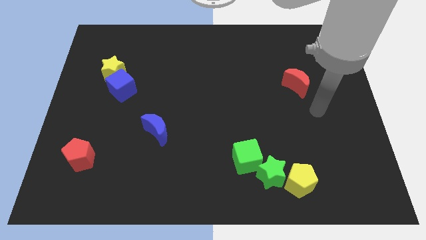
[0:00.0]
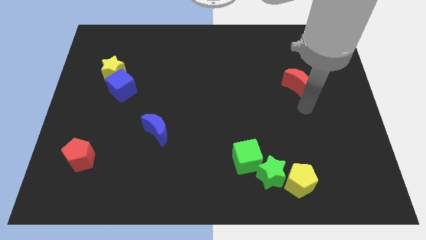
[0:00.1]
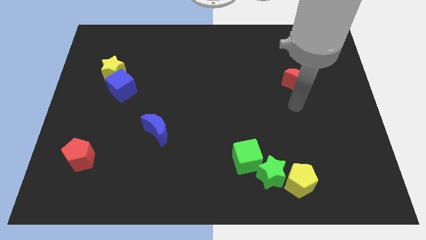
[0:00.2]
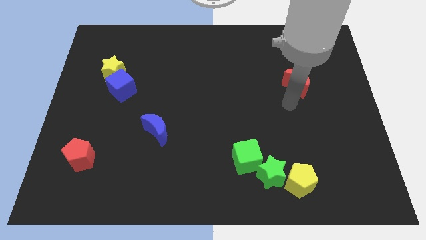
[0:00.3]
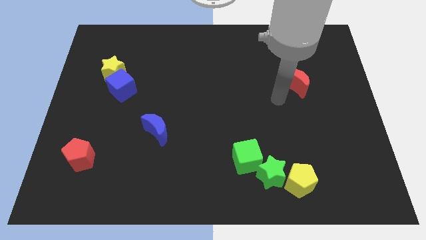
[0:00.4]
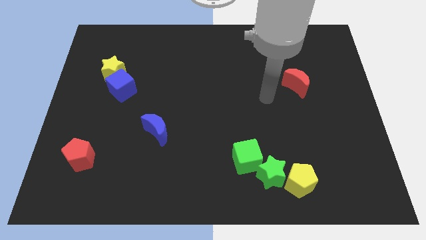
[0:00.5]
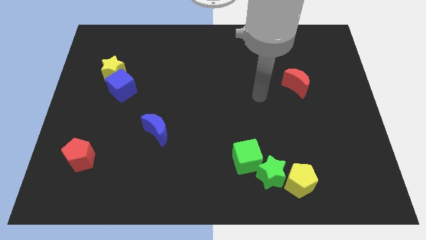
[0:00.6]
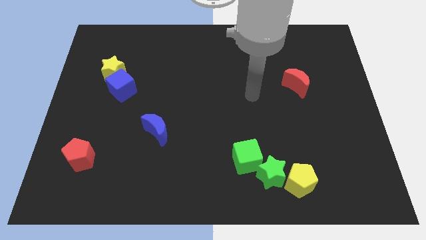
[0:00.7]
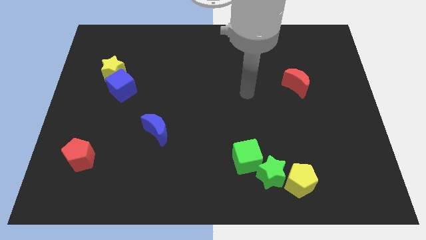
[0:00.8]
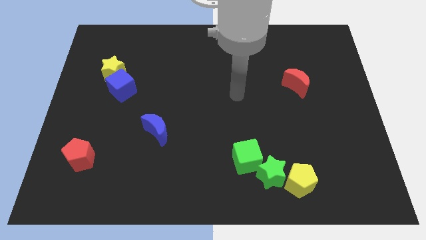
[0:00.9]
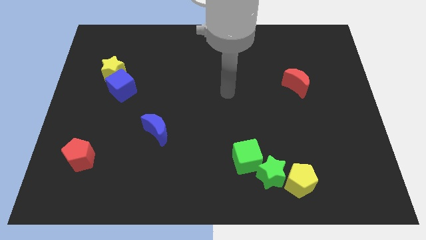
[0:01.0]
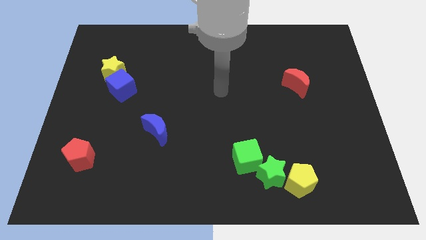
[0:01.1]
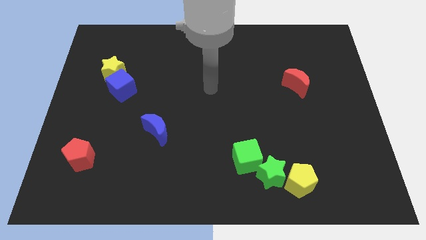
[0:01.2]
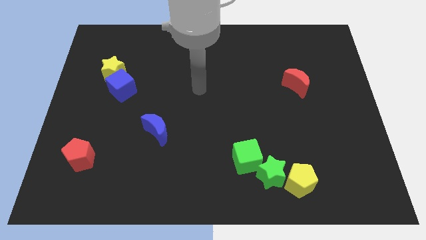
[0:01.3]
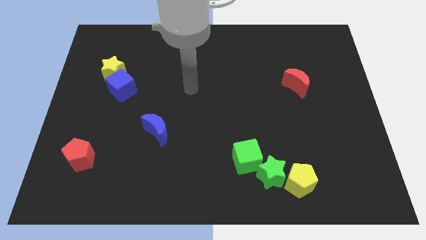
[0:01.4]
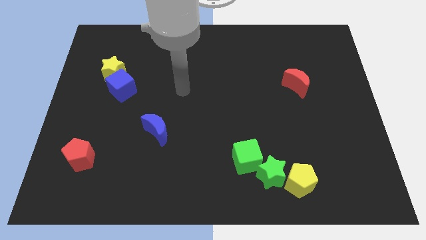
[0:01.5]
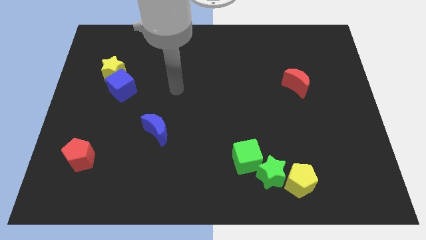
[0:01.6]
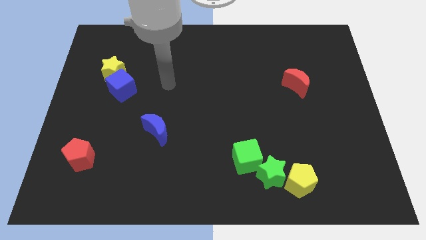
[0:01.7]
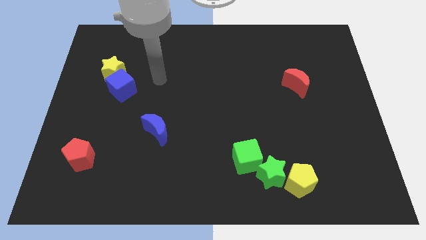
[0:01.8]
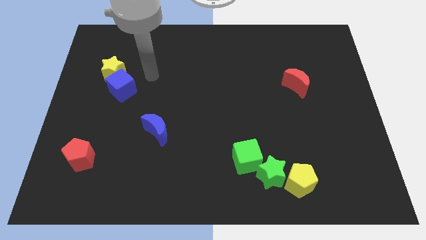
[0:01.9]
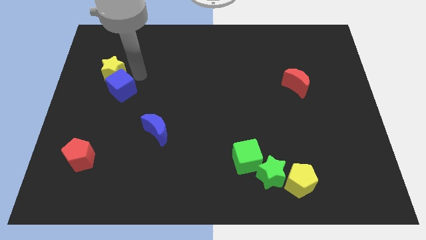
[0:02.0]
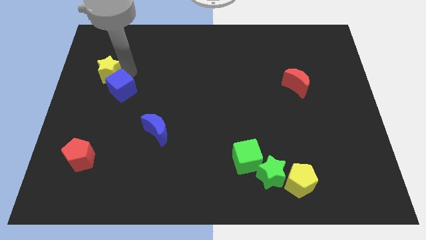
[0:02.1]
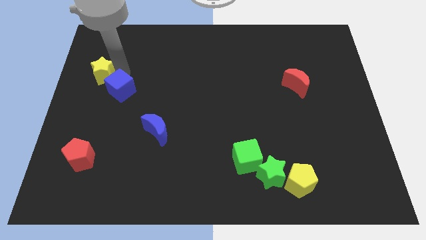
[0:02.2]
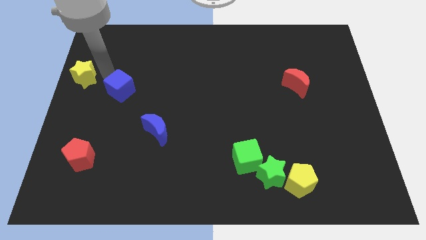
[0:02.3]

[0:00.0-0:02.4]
separate the blue cube from the yellow star

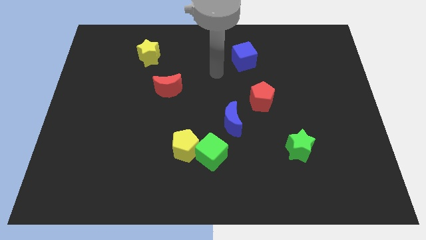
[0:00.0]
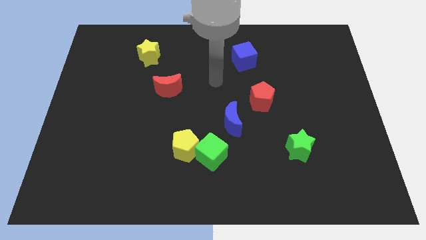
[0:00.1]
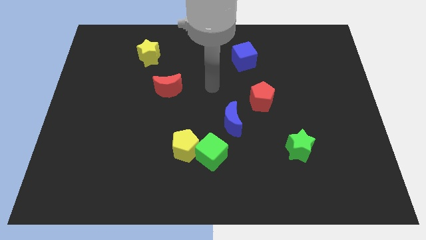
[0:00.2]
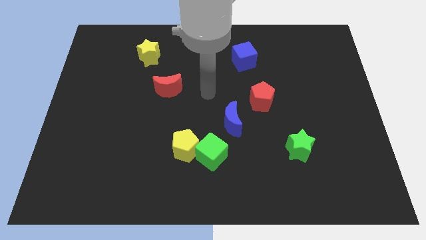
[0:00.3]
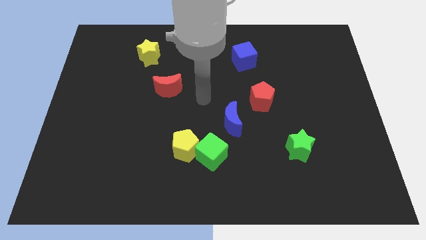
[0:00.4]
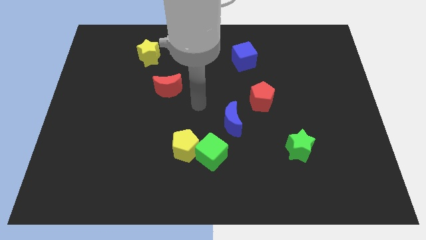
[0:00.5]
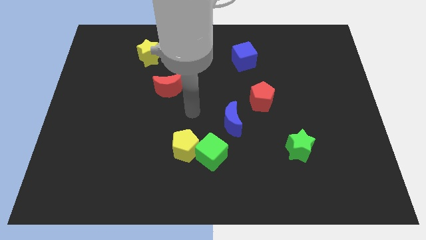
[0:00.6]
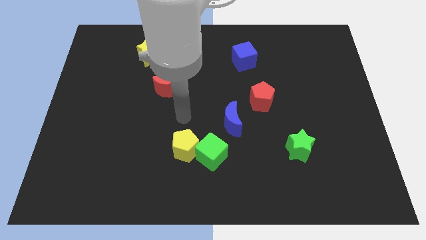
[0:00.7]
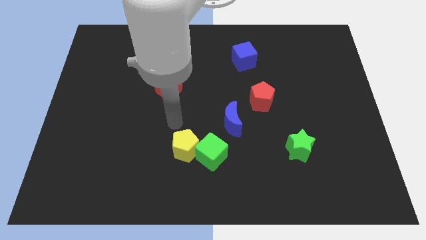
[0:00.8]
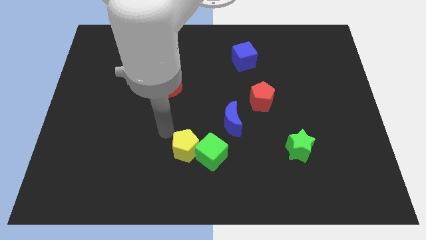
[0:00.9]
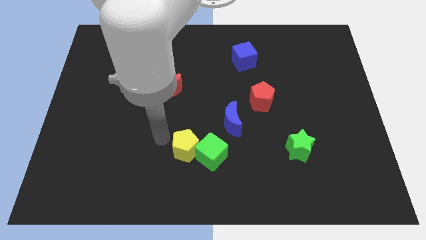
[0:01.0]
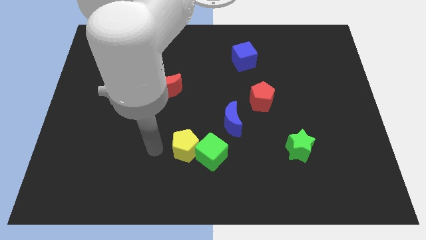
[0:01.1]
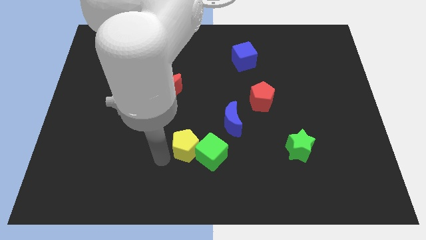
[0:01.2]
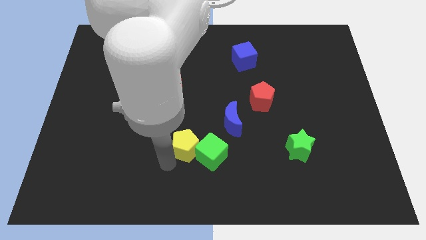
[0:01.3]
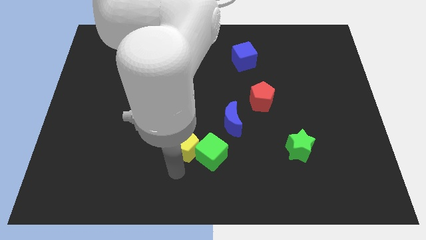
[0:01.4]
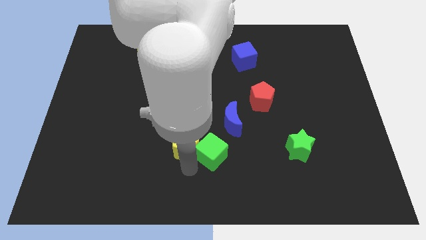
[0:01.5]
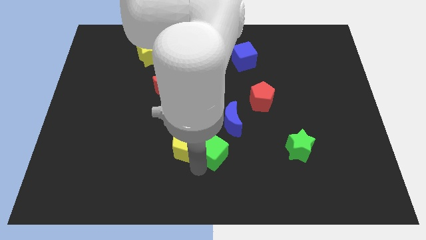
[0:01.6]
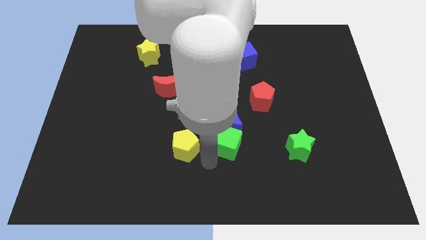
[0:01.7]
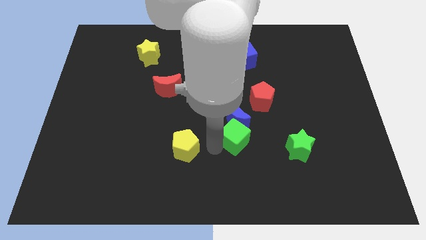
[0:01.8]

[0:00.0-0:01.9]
separate the yellow pentagon from the green cube

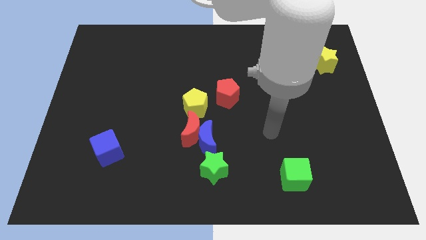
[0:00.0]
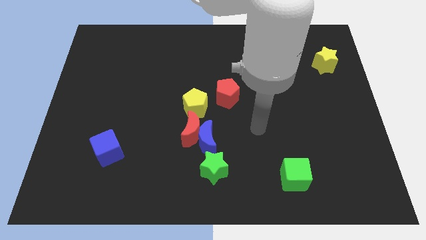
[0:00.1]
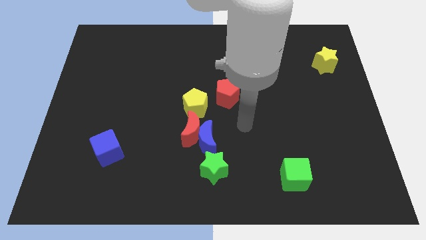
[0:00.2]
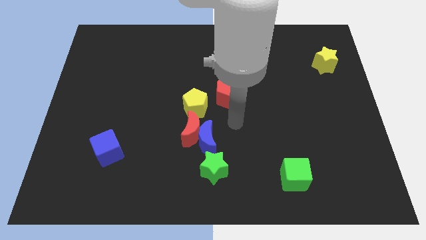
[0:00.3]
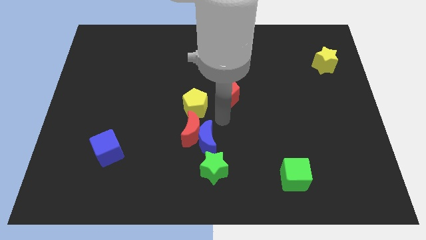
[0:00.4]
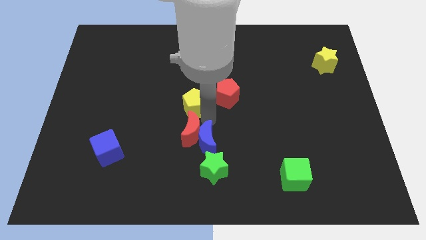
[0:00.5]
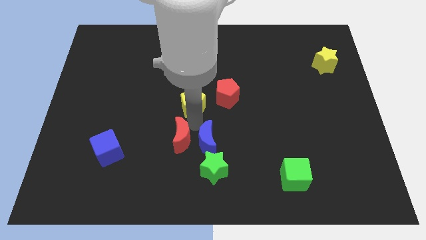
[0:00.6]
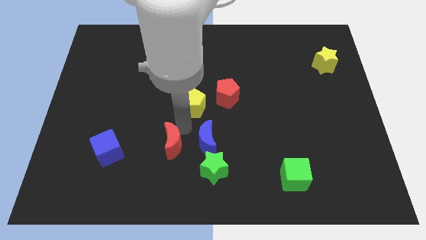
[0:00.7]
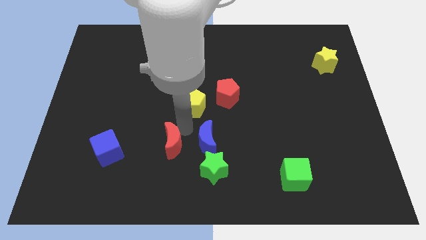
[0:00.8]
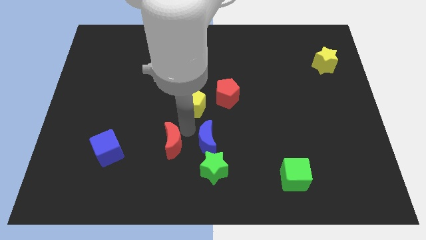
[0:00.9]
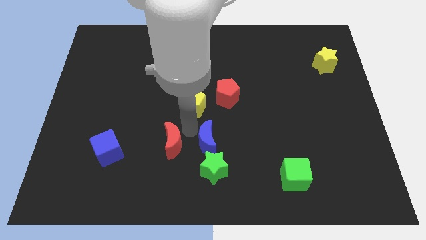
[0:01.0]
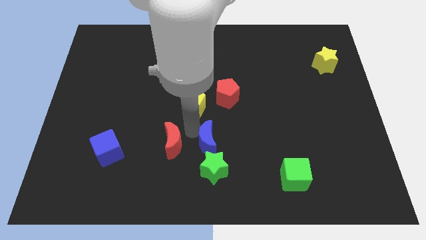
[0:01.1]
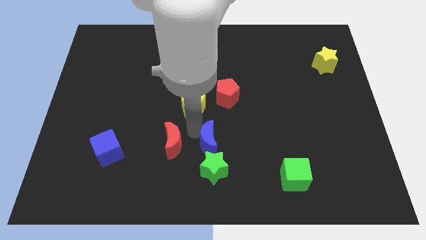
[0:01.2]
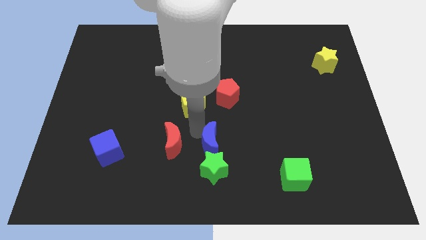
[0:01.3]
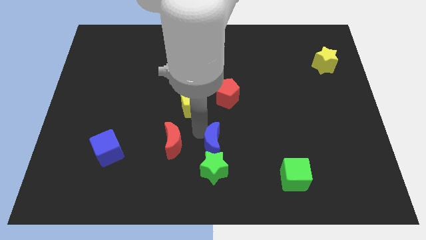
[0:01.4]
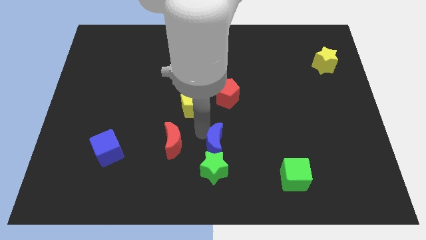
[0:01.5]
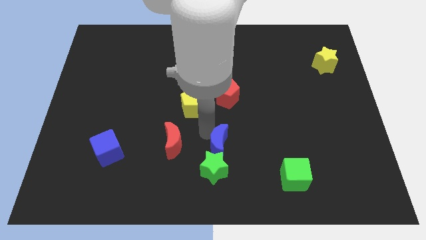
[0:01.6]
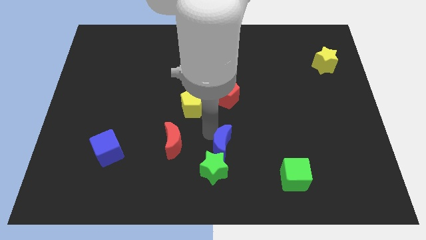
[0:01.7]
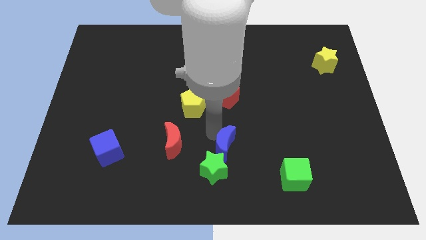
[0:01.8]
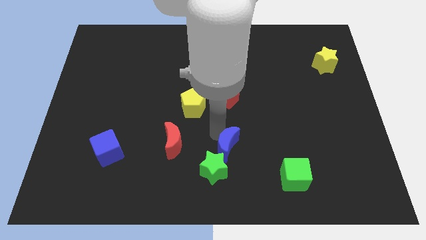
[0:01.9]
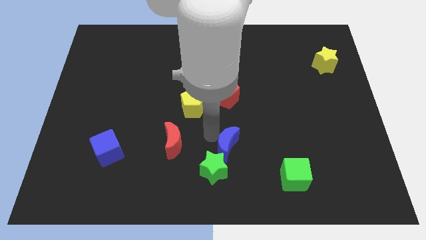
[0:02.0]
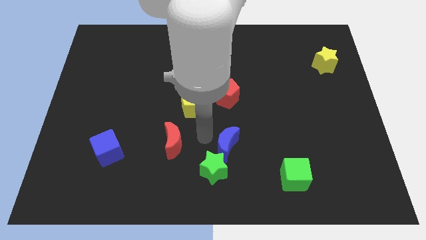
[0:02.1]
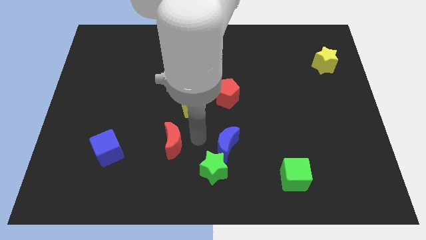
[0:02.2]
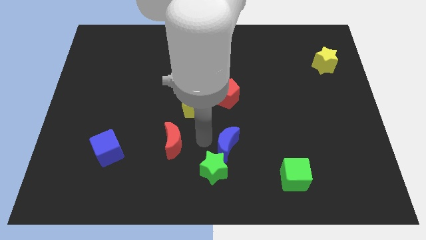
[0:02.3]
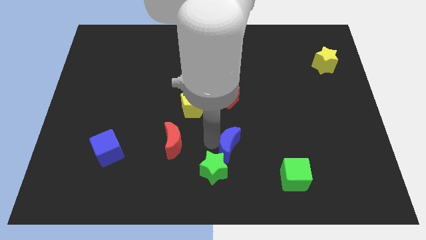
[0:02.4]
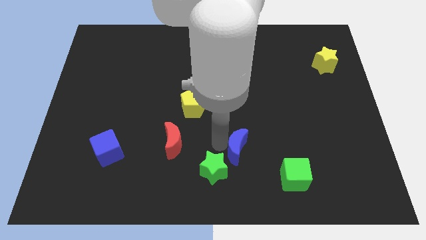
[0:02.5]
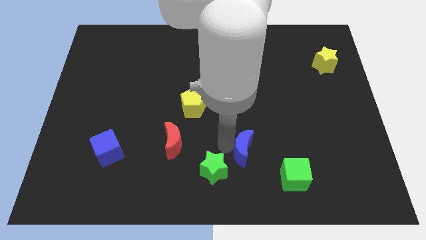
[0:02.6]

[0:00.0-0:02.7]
pull the blue moon apart from the clump

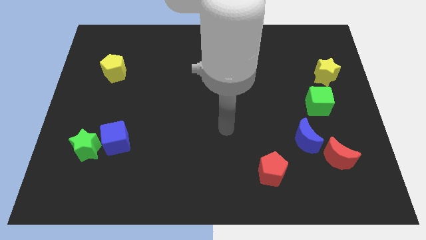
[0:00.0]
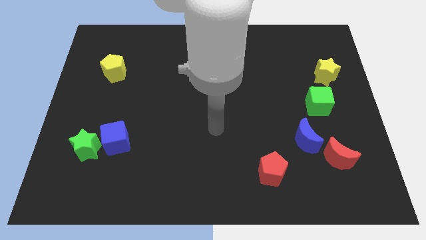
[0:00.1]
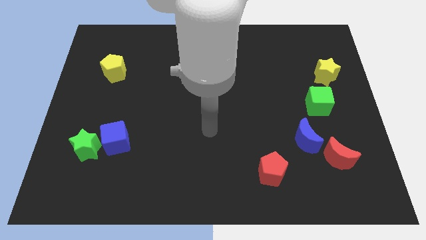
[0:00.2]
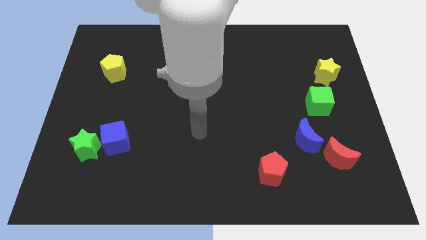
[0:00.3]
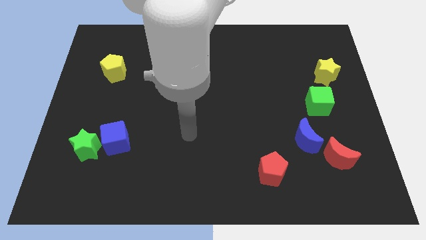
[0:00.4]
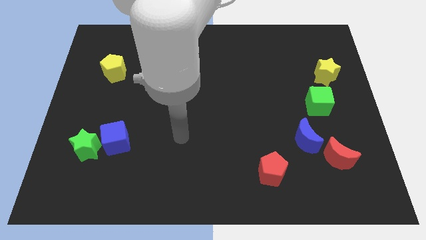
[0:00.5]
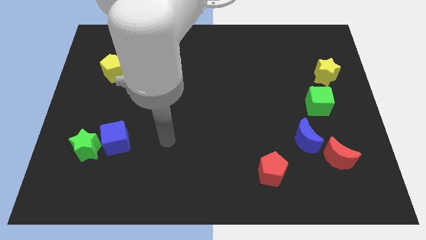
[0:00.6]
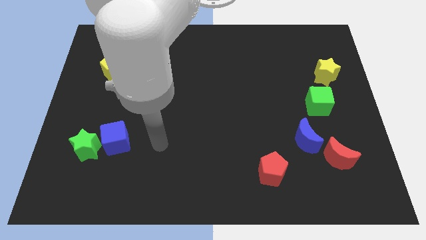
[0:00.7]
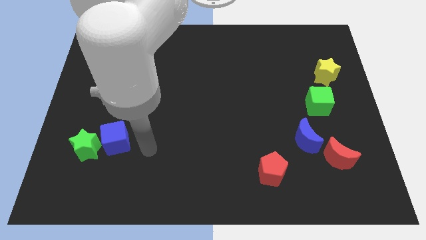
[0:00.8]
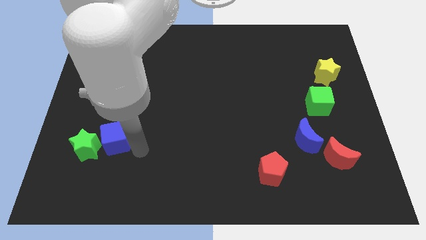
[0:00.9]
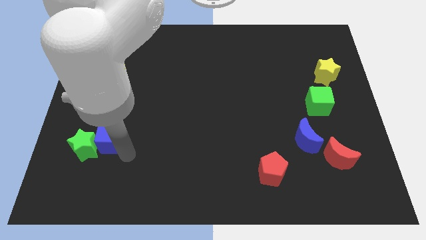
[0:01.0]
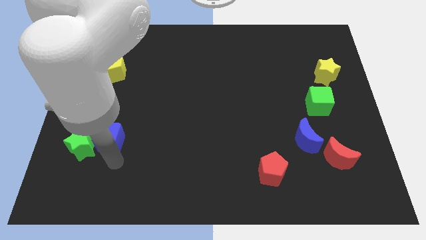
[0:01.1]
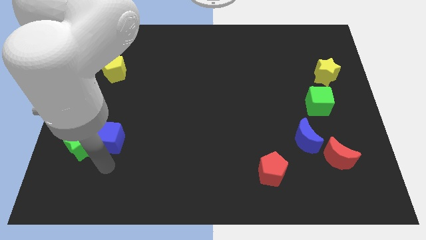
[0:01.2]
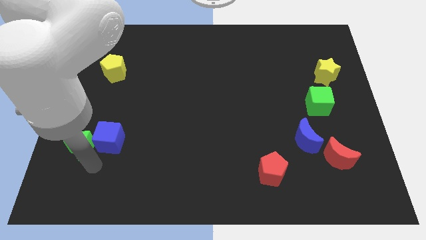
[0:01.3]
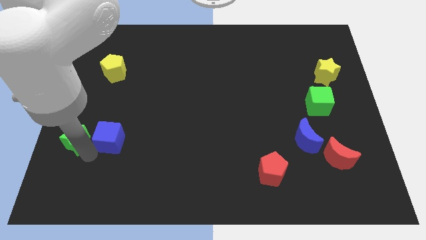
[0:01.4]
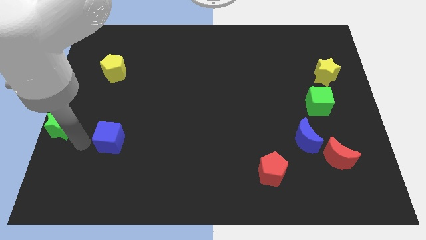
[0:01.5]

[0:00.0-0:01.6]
pull the blue cube apart from the green star

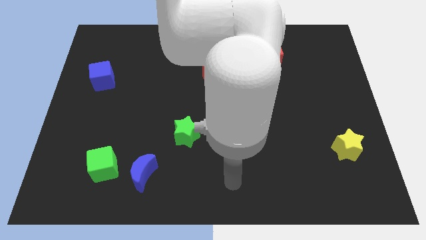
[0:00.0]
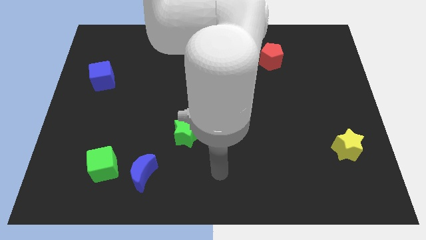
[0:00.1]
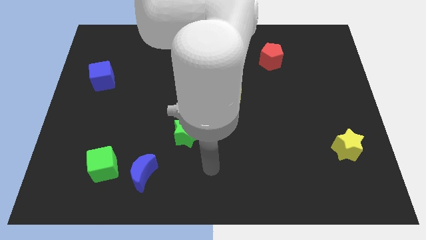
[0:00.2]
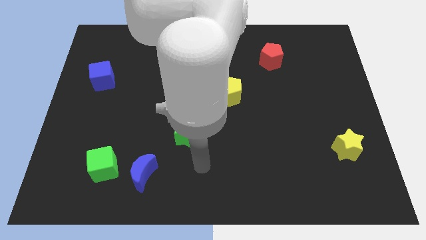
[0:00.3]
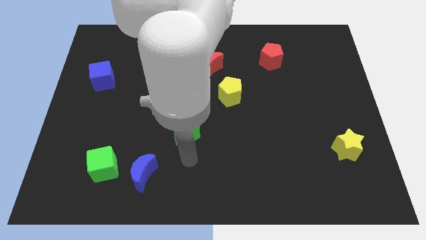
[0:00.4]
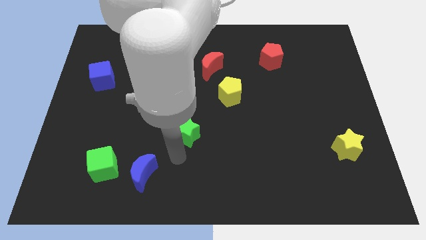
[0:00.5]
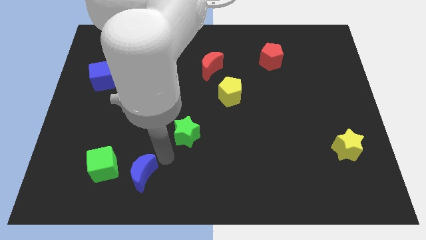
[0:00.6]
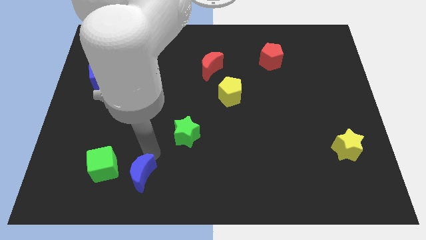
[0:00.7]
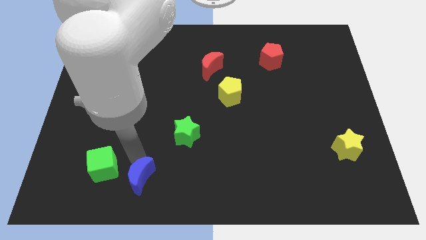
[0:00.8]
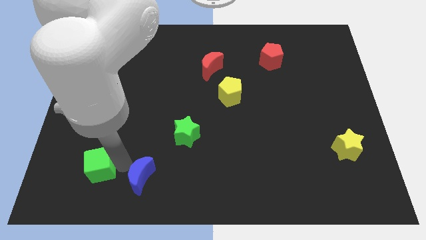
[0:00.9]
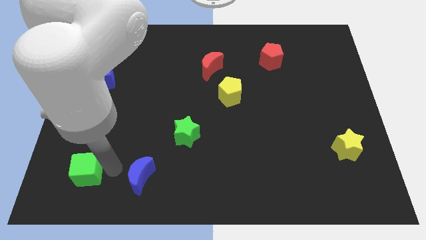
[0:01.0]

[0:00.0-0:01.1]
pull the blue moon apart from the green cube
